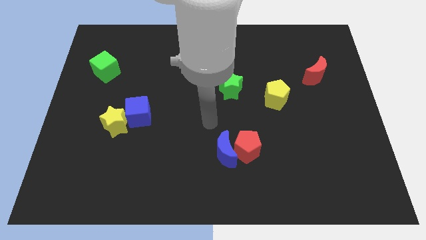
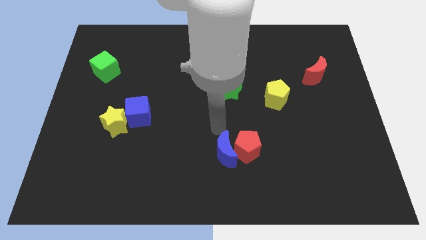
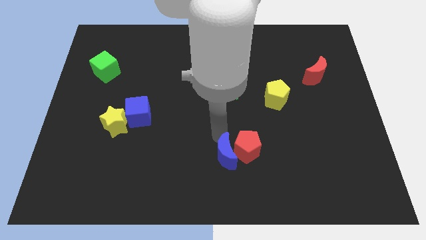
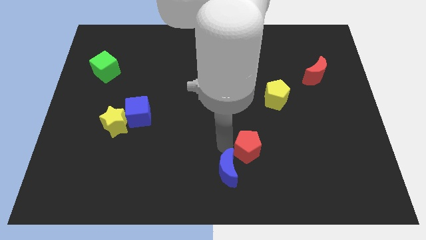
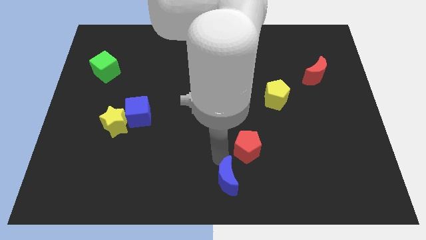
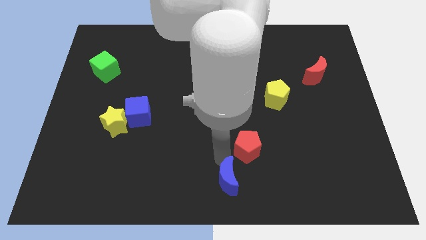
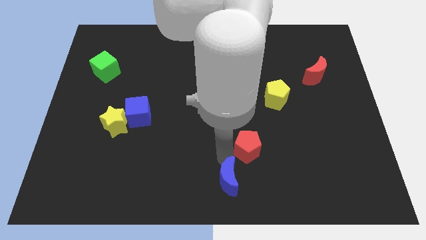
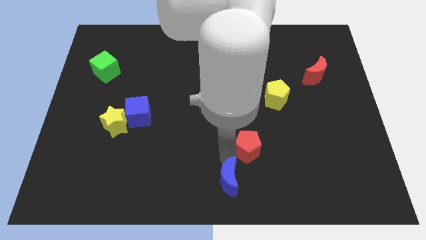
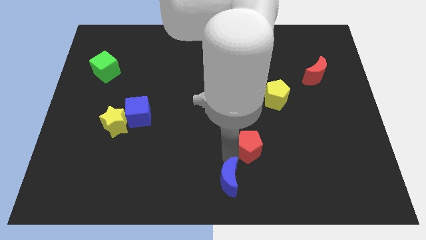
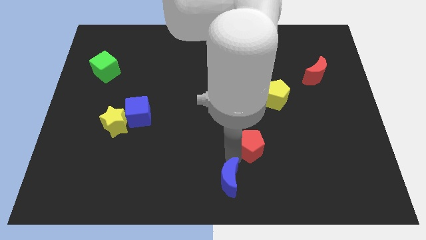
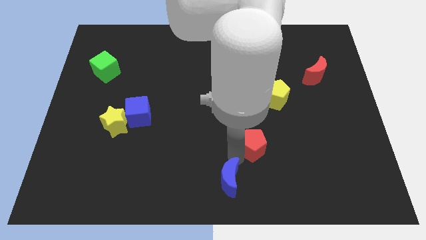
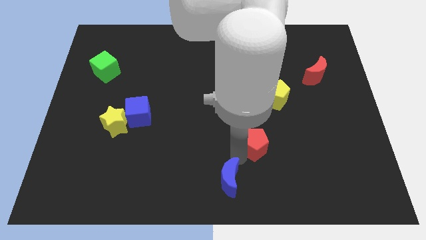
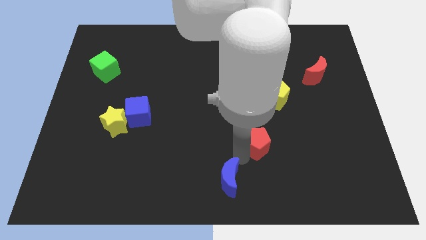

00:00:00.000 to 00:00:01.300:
pull the red pentagon apart from the blue moon

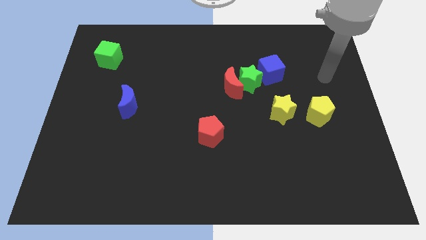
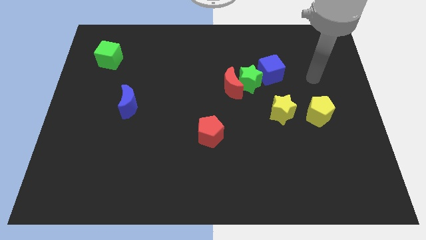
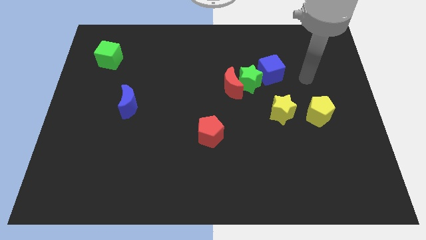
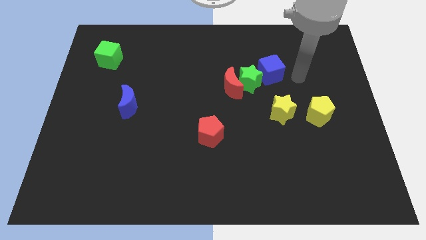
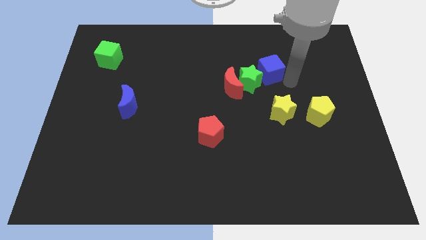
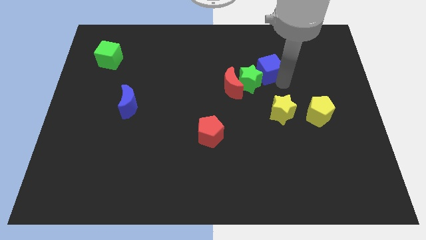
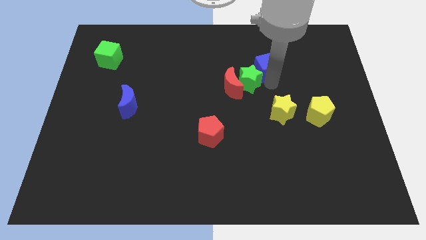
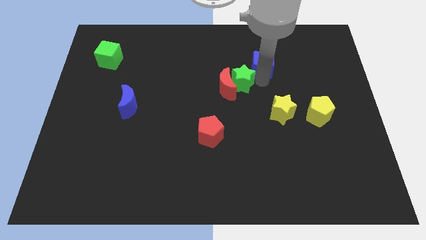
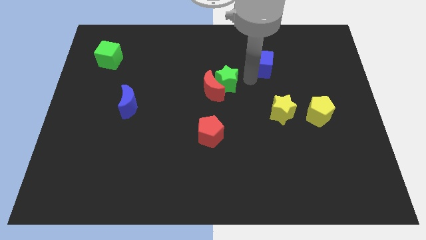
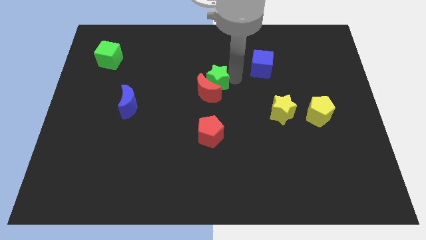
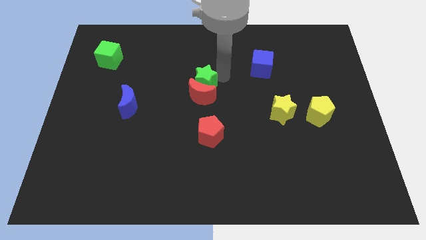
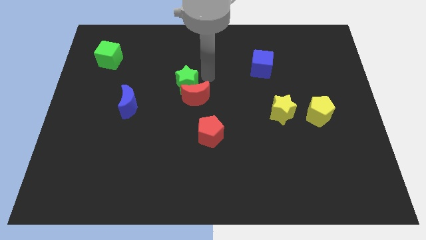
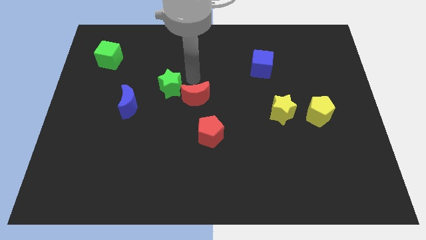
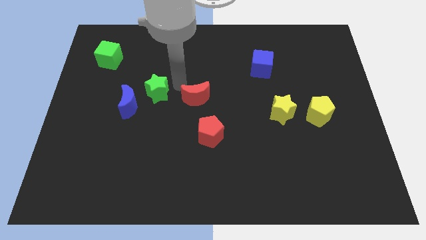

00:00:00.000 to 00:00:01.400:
separate the red moon from the green star

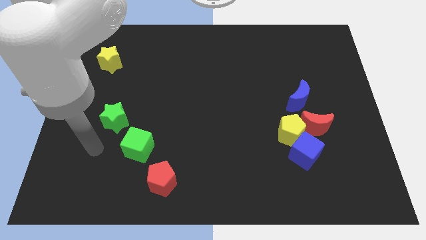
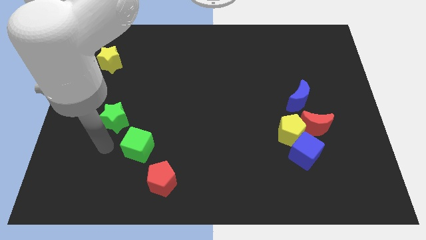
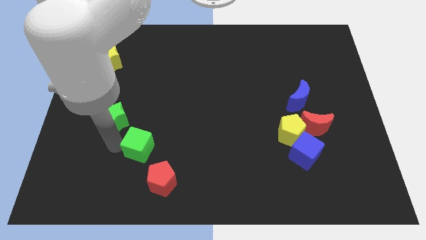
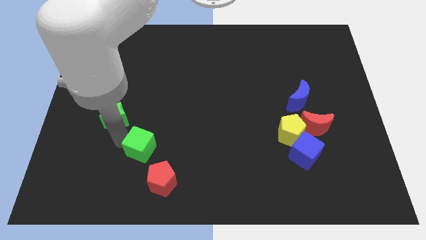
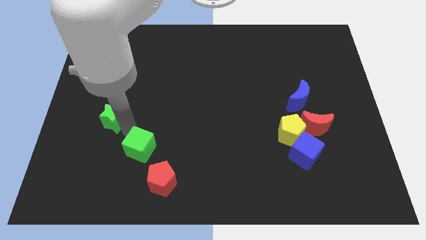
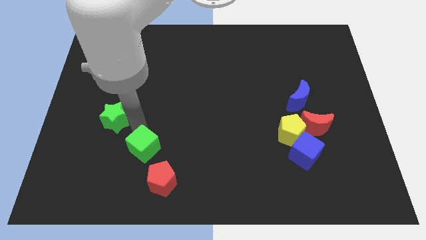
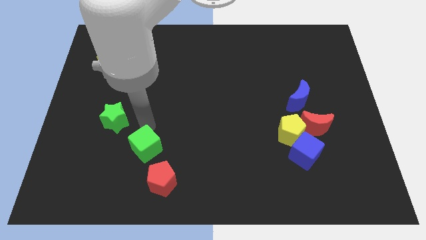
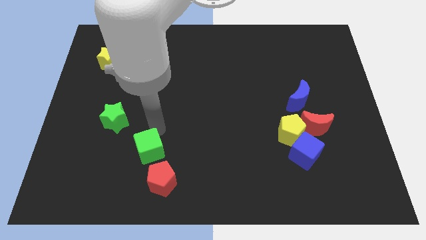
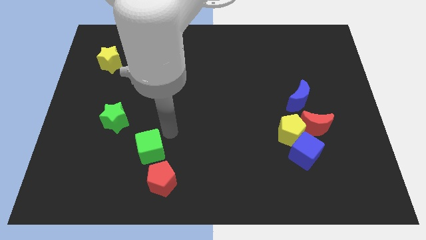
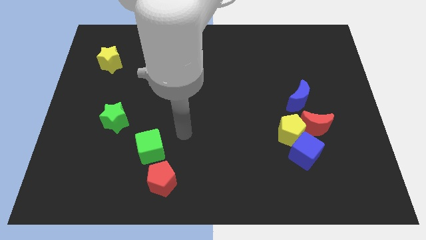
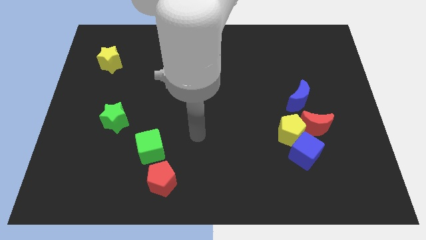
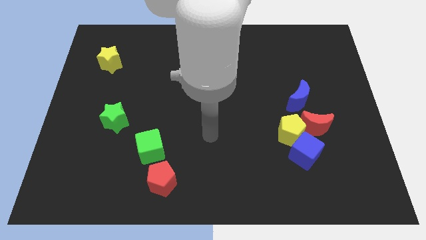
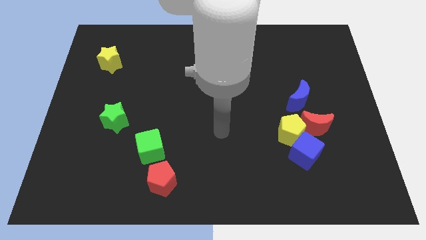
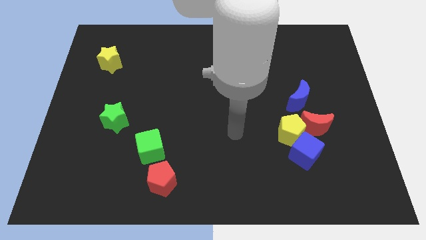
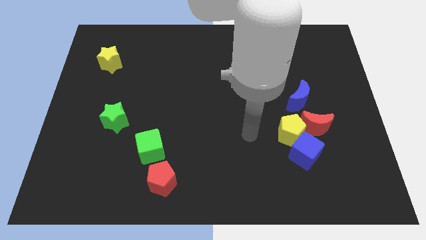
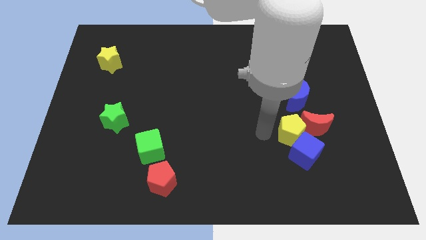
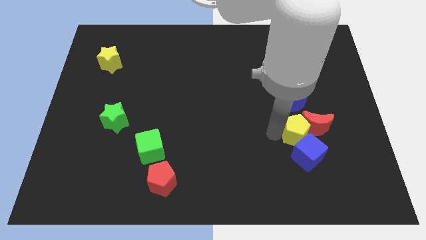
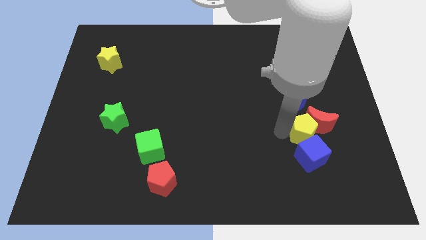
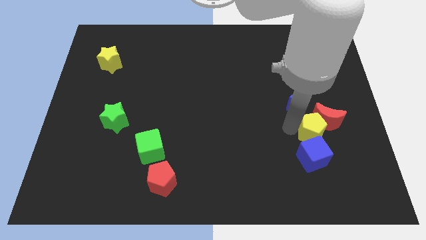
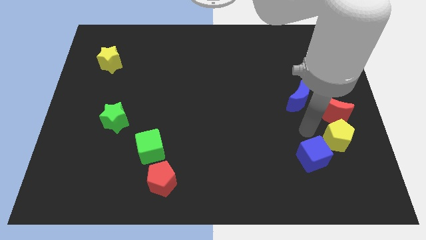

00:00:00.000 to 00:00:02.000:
separate the blue cube from the yellow pentagon and red moon

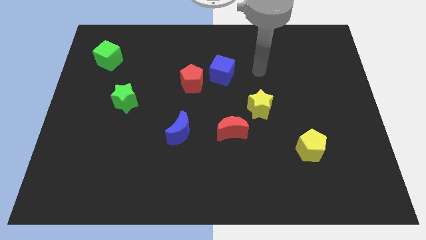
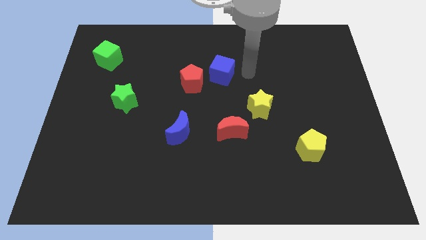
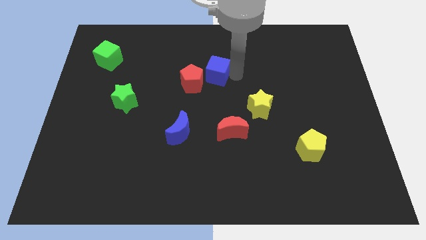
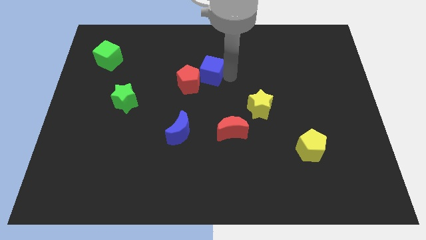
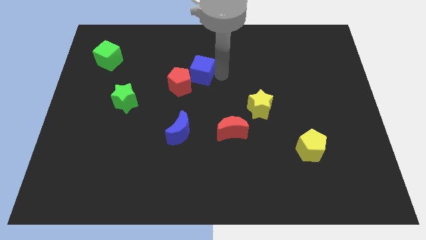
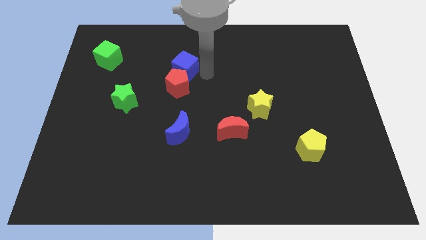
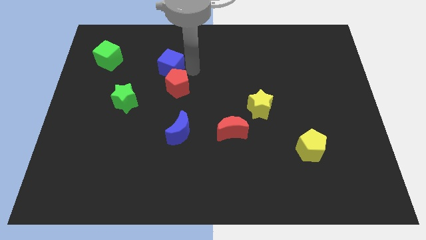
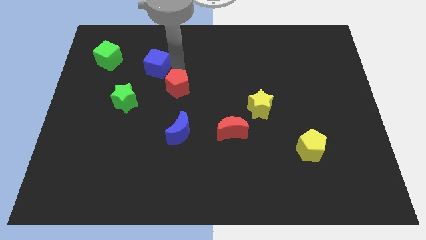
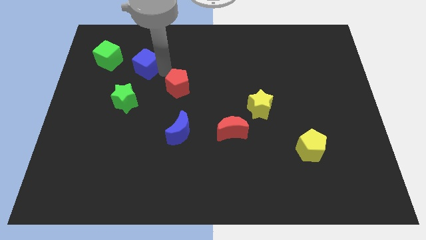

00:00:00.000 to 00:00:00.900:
pull the red pentagon apart from the blue cube

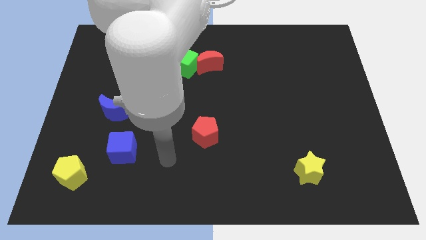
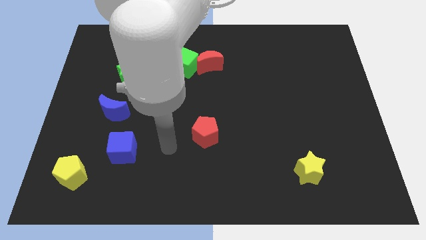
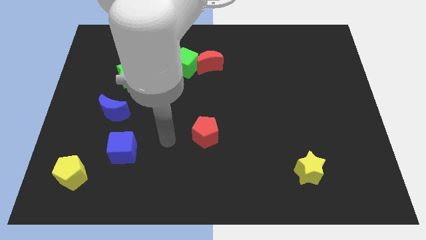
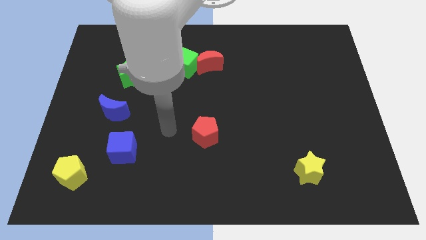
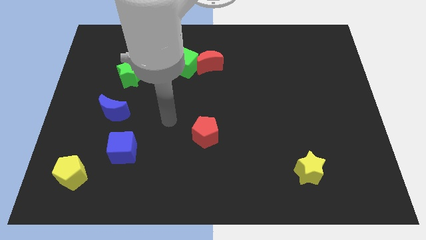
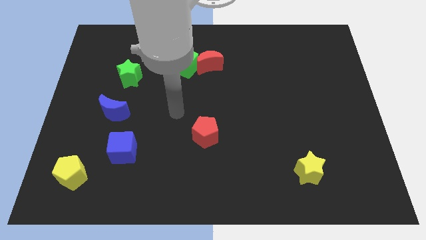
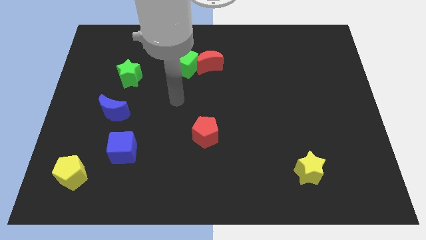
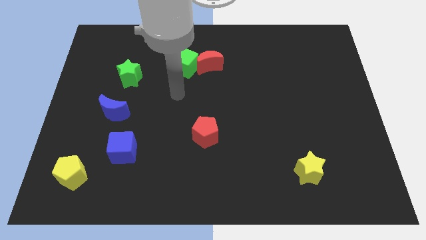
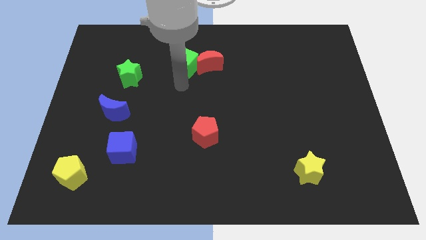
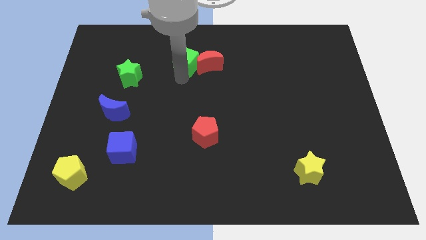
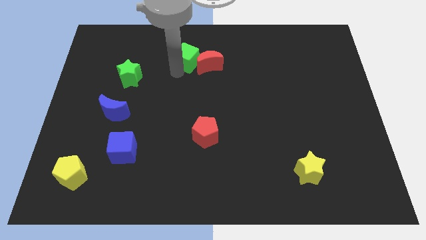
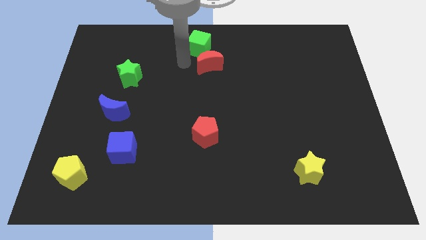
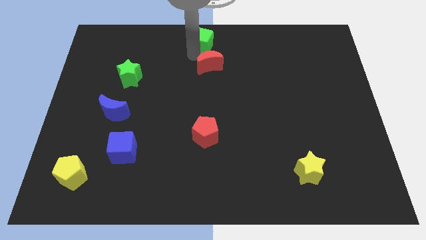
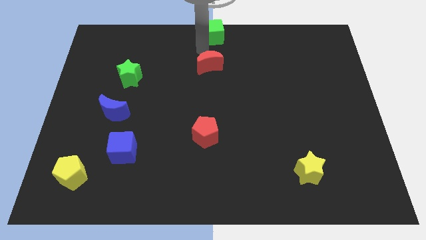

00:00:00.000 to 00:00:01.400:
separate the red moon from the green cube

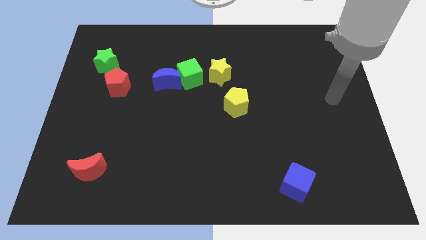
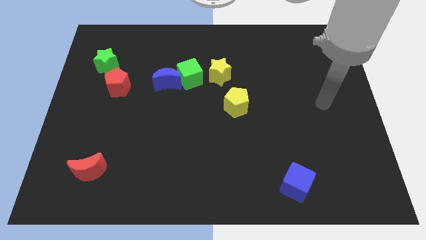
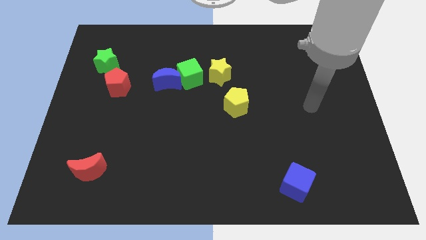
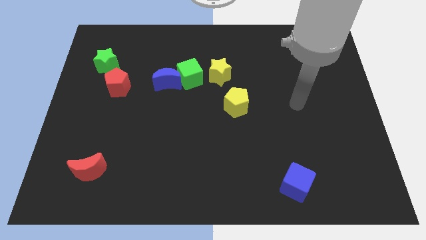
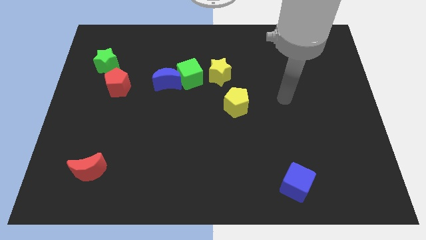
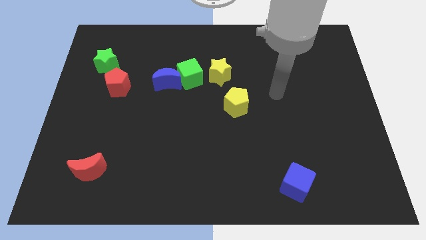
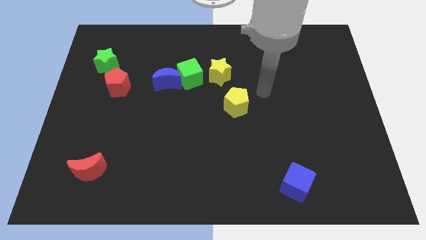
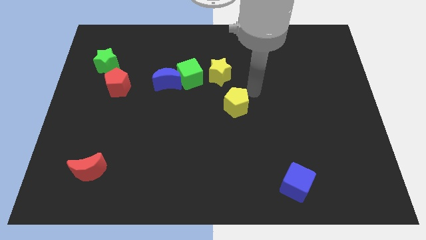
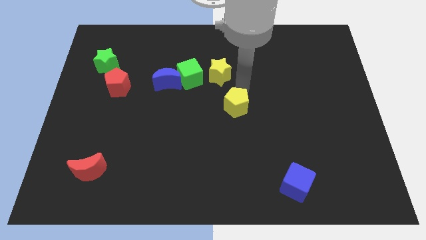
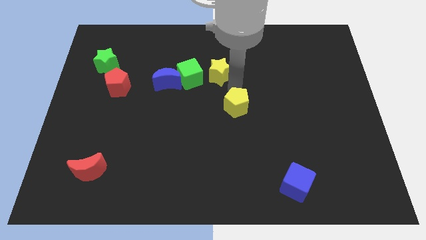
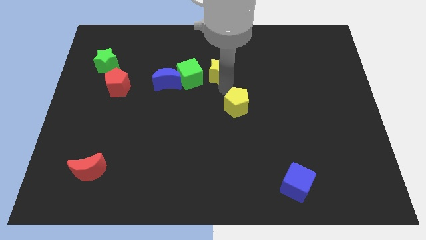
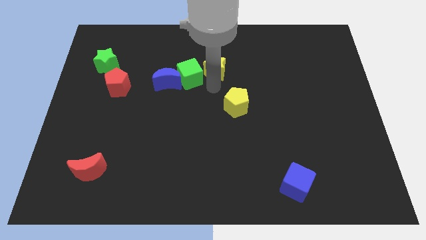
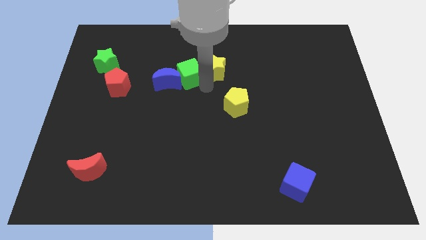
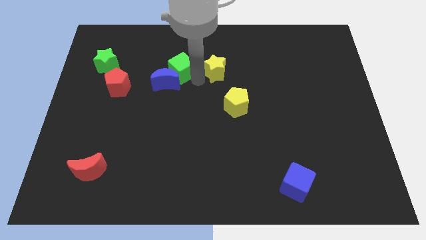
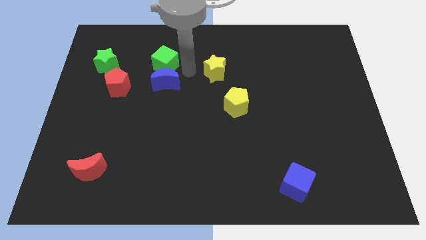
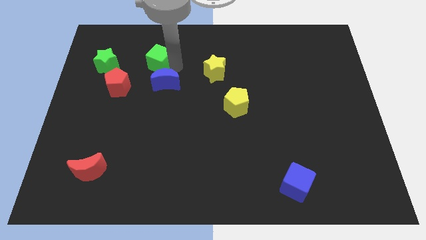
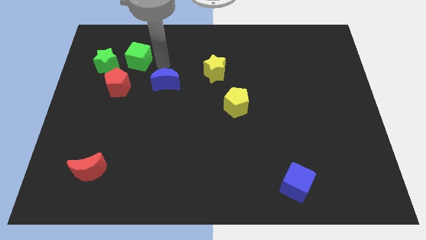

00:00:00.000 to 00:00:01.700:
move the blue moon away from the green cube

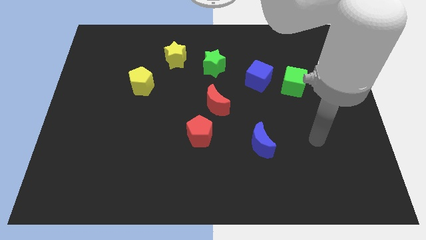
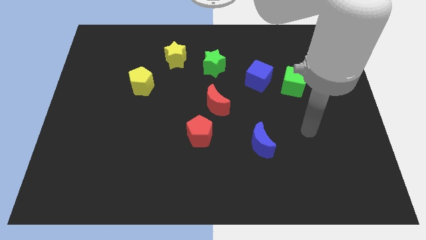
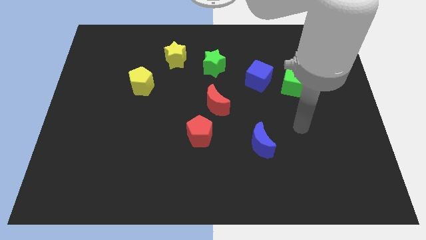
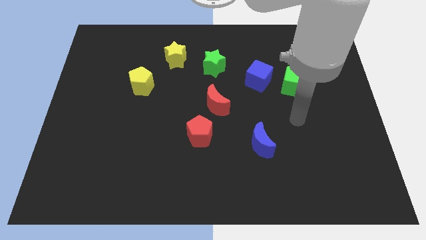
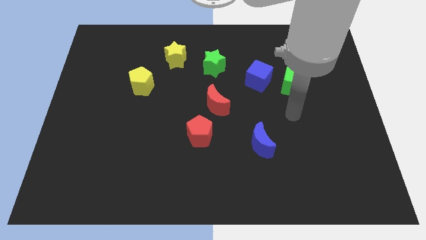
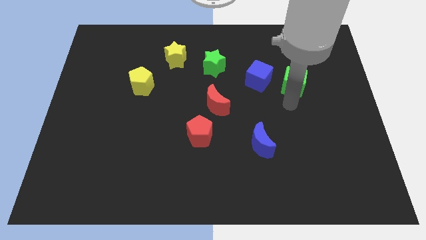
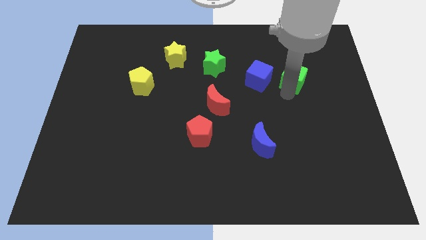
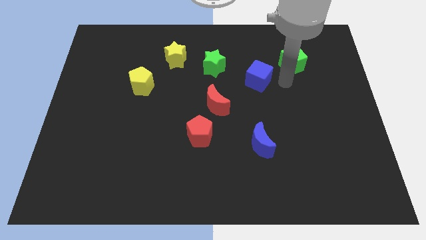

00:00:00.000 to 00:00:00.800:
move the blue cube away from the green cube
